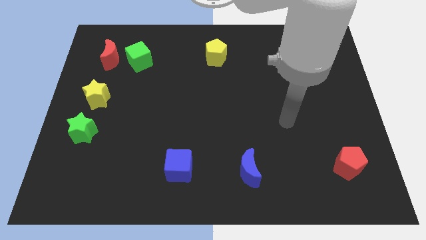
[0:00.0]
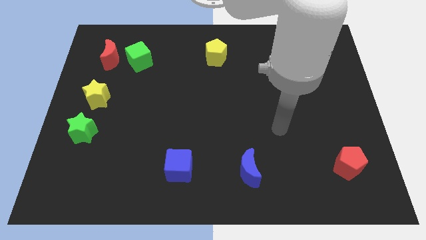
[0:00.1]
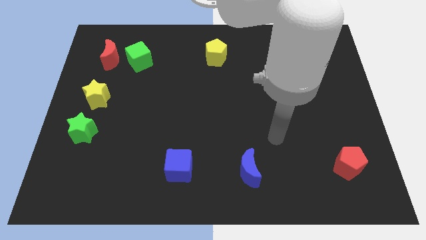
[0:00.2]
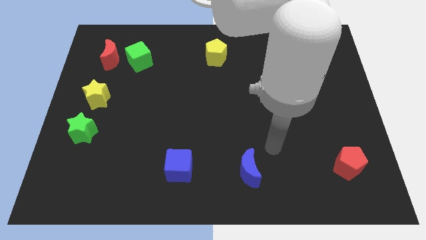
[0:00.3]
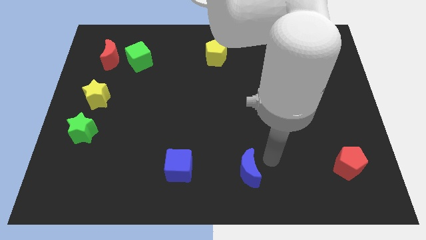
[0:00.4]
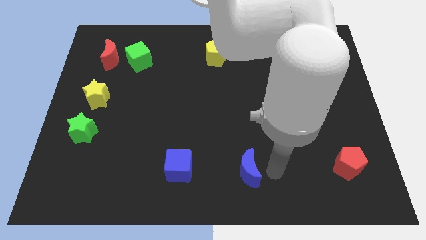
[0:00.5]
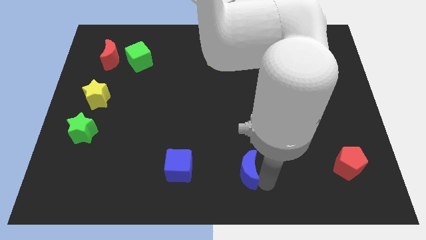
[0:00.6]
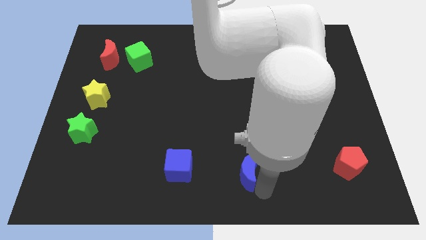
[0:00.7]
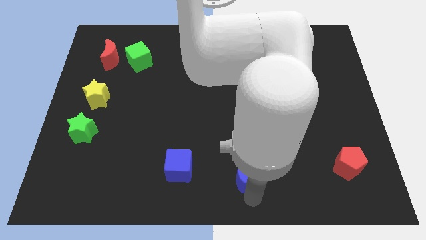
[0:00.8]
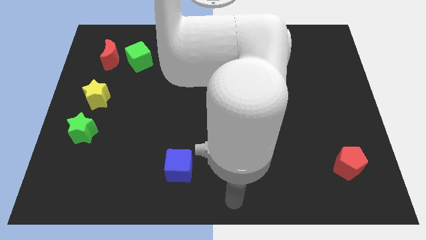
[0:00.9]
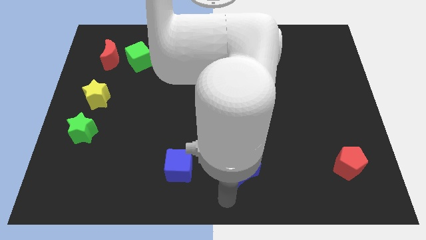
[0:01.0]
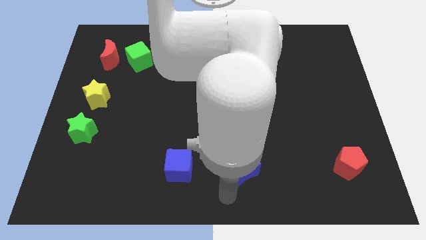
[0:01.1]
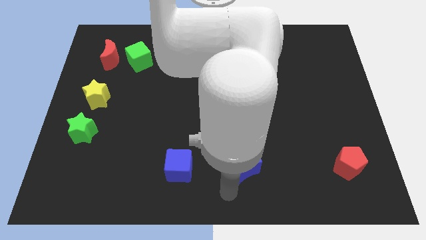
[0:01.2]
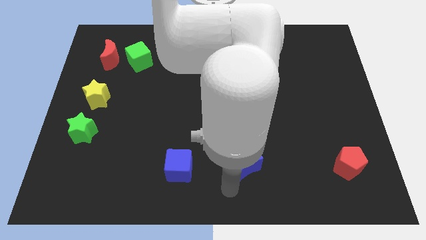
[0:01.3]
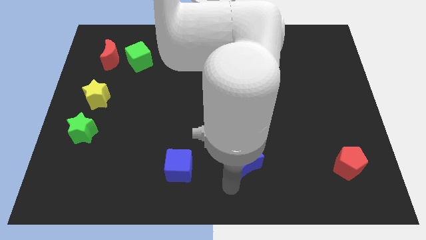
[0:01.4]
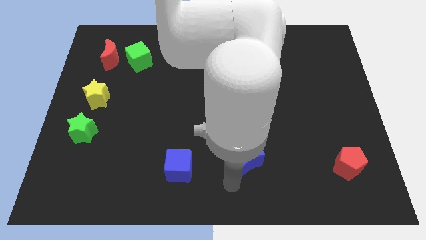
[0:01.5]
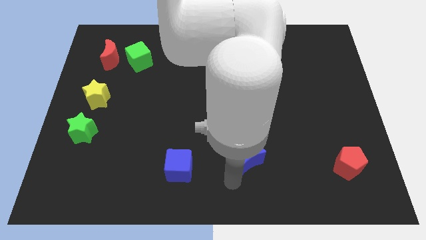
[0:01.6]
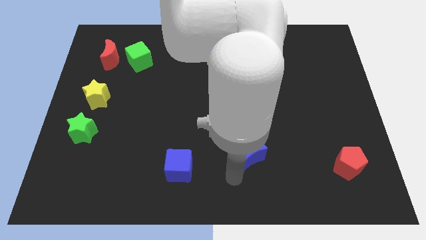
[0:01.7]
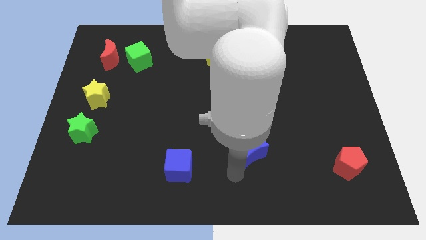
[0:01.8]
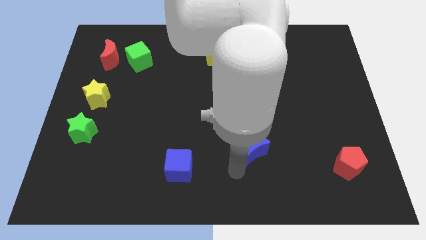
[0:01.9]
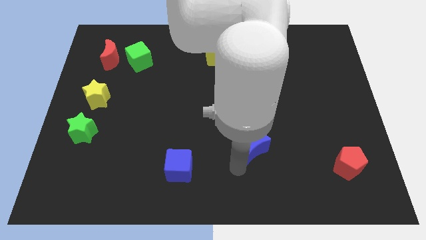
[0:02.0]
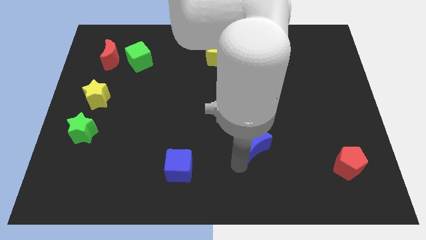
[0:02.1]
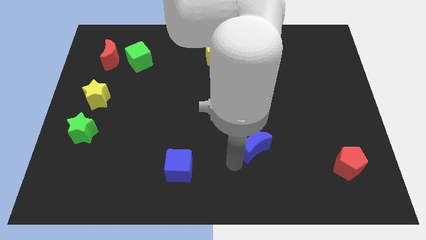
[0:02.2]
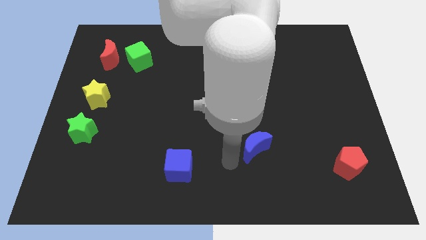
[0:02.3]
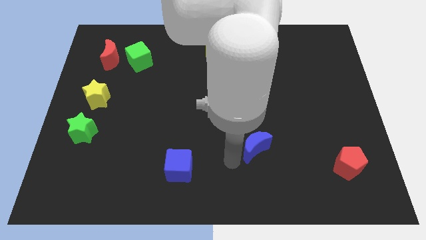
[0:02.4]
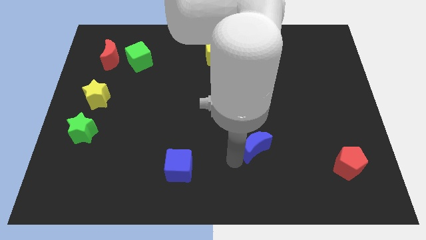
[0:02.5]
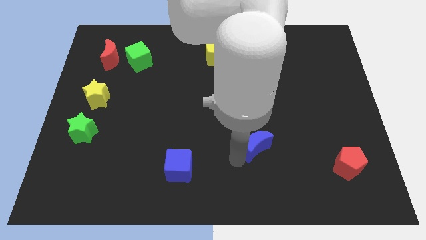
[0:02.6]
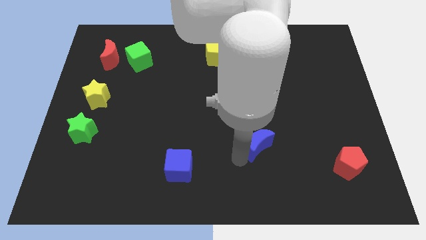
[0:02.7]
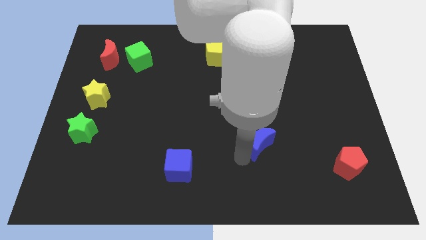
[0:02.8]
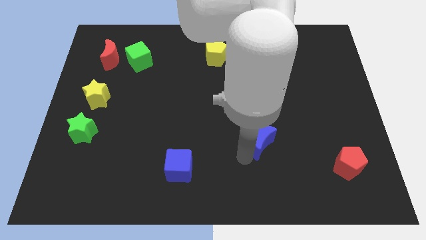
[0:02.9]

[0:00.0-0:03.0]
push the blue moon up and to the right somewhat

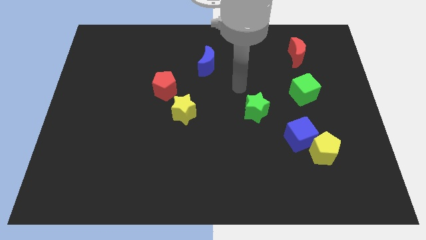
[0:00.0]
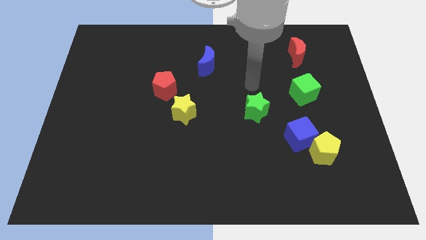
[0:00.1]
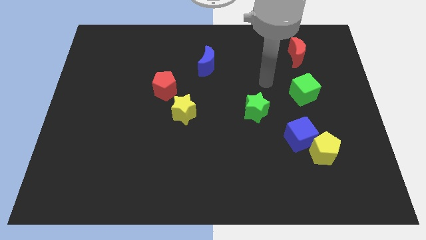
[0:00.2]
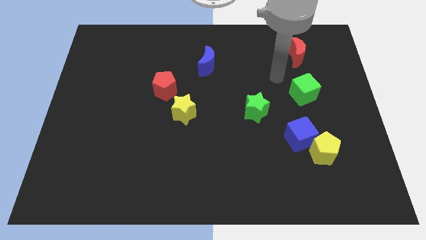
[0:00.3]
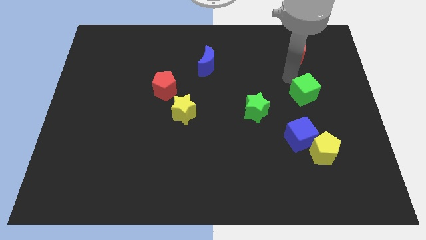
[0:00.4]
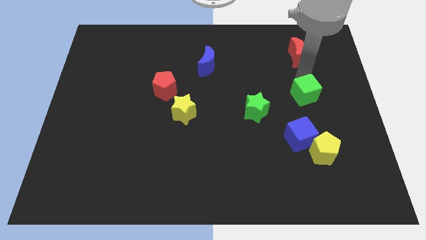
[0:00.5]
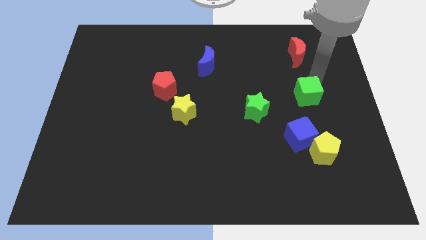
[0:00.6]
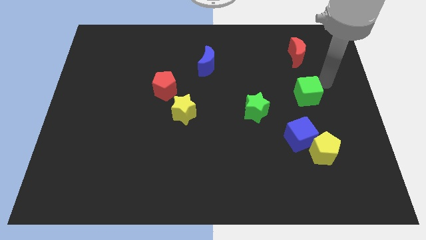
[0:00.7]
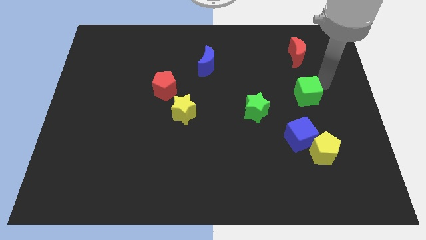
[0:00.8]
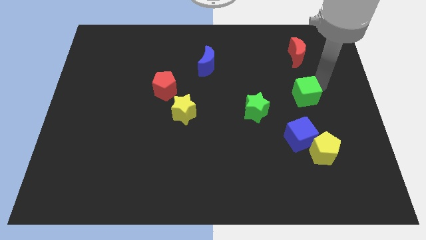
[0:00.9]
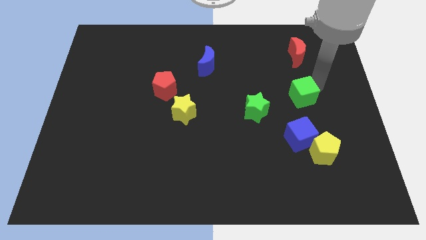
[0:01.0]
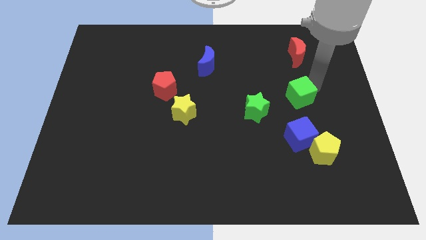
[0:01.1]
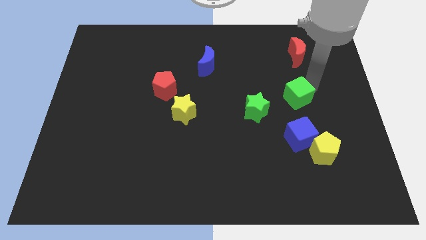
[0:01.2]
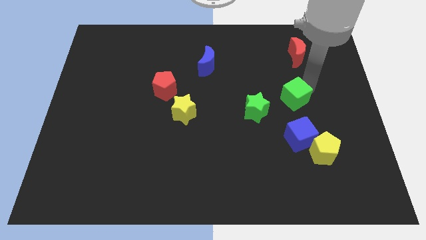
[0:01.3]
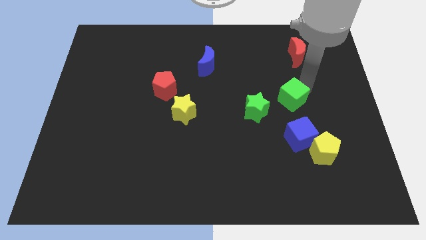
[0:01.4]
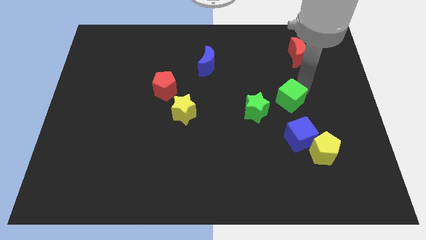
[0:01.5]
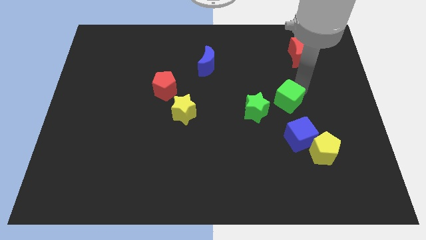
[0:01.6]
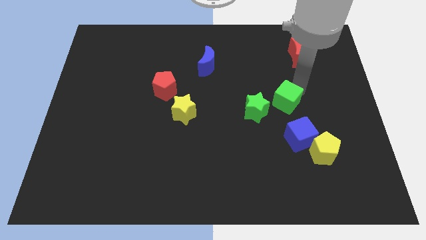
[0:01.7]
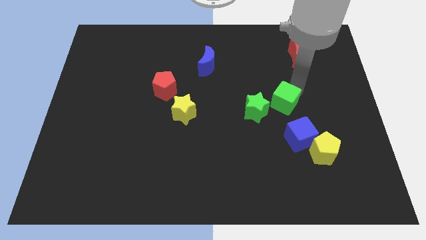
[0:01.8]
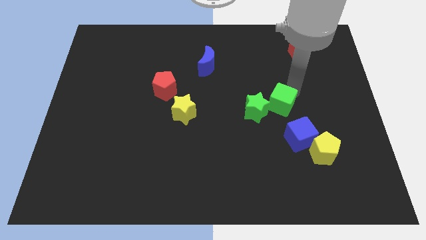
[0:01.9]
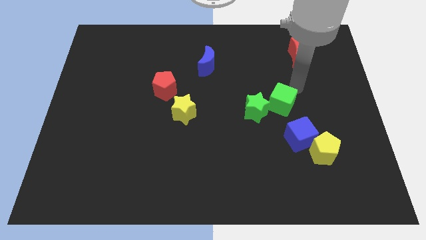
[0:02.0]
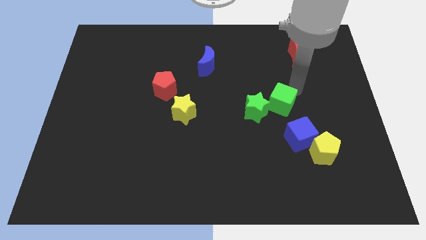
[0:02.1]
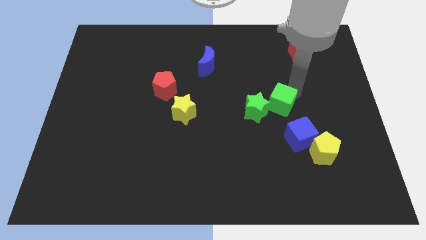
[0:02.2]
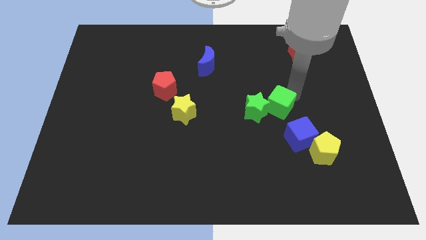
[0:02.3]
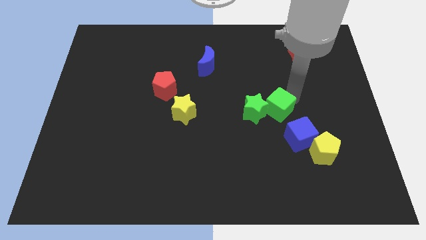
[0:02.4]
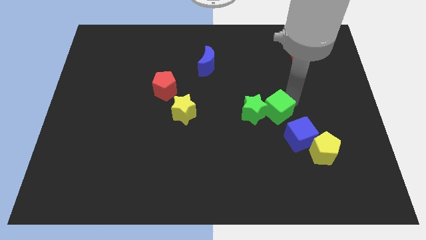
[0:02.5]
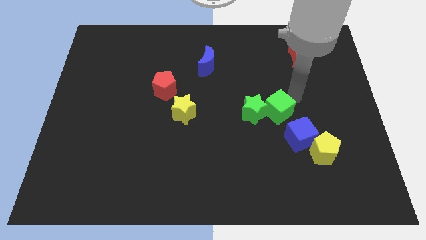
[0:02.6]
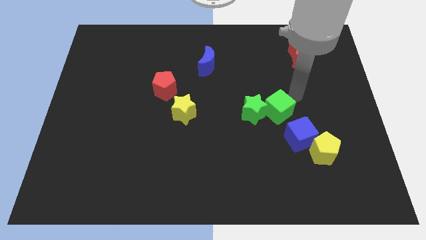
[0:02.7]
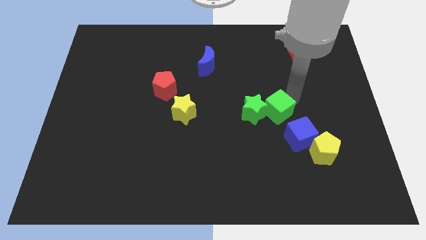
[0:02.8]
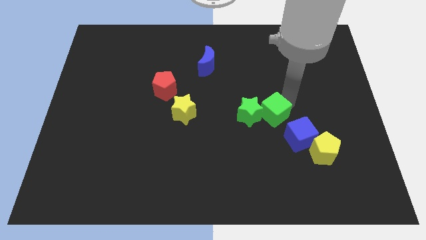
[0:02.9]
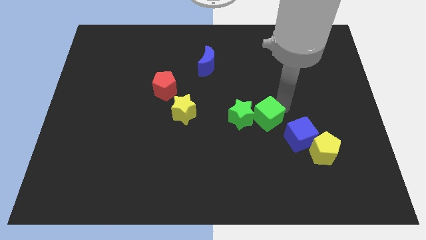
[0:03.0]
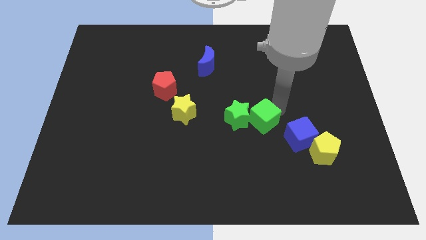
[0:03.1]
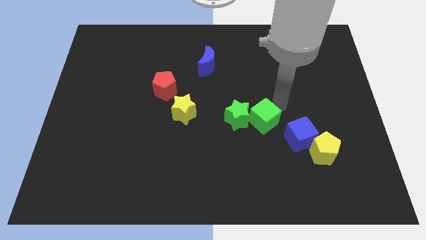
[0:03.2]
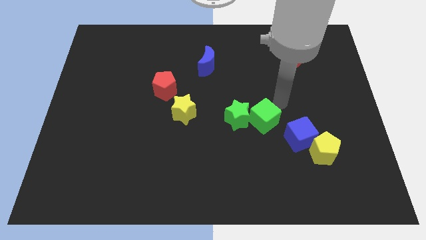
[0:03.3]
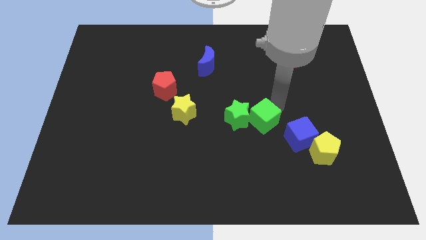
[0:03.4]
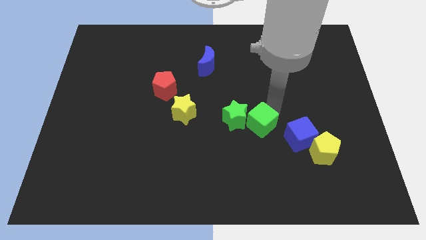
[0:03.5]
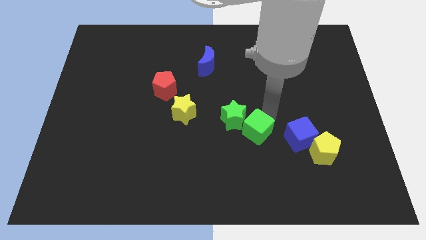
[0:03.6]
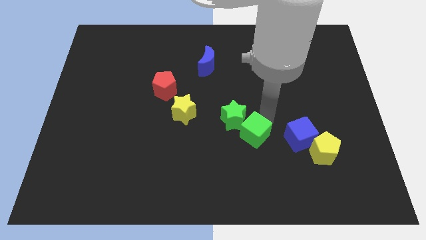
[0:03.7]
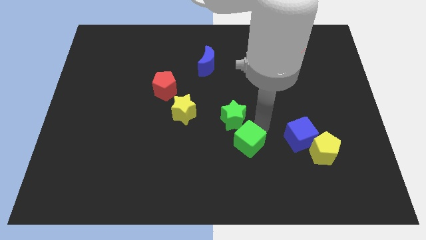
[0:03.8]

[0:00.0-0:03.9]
move the green cube down and left

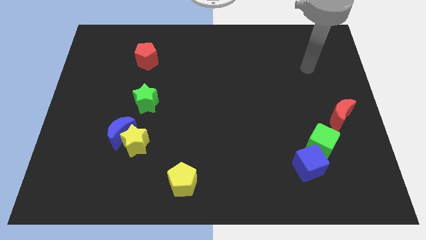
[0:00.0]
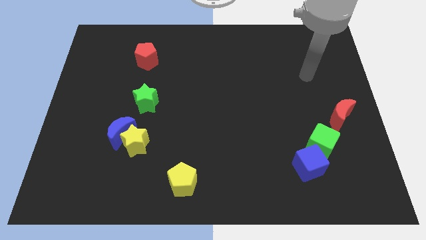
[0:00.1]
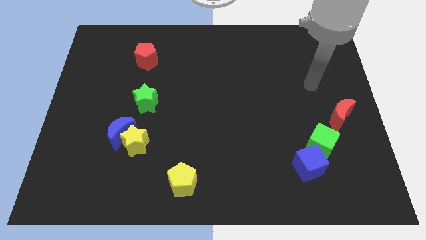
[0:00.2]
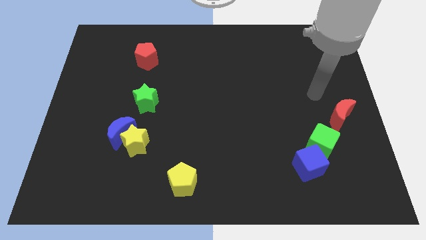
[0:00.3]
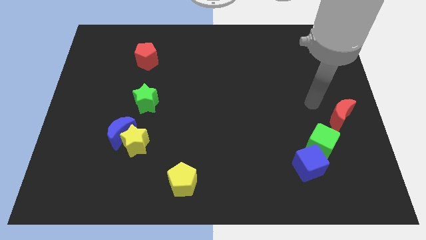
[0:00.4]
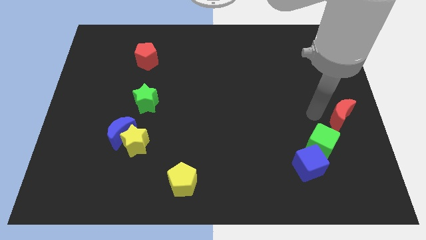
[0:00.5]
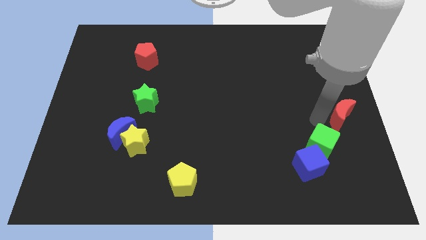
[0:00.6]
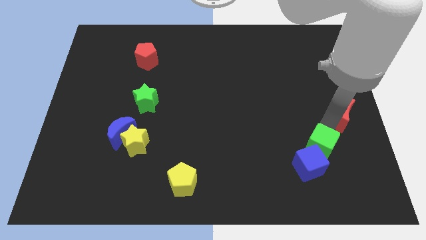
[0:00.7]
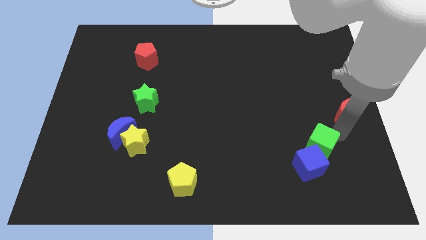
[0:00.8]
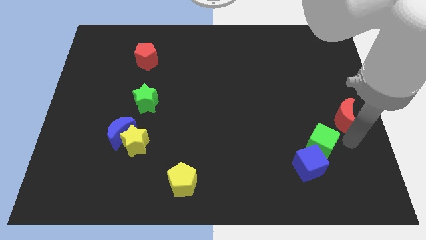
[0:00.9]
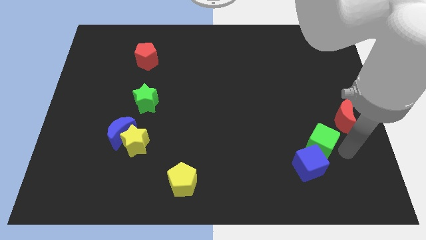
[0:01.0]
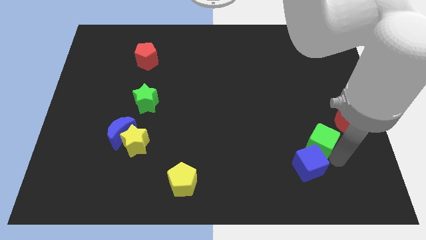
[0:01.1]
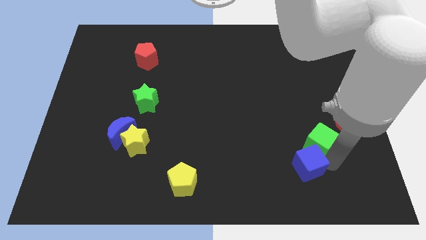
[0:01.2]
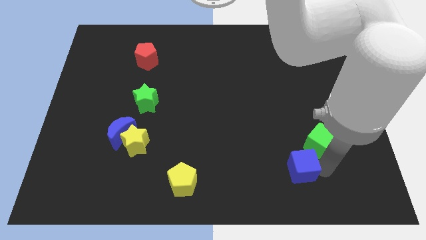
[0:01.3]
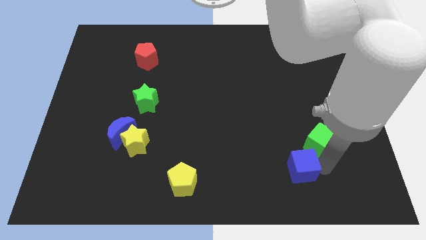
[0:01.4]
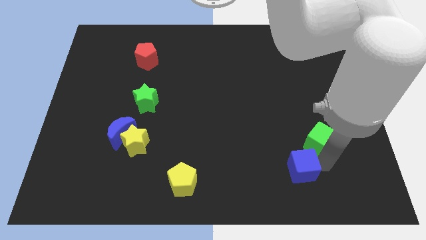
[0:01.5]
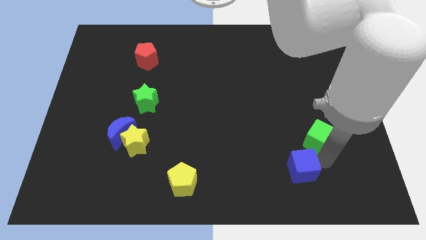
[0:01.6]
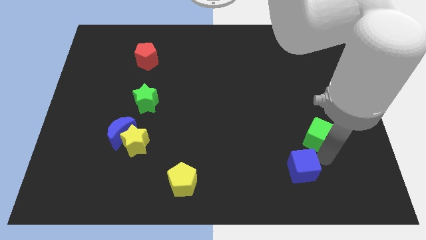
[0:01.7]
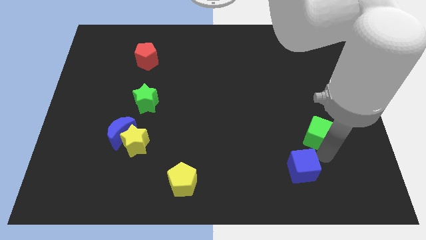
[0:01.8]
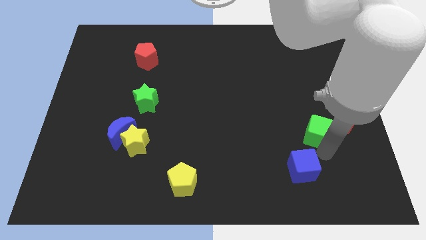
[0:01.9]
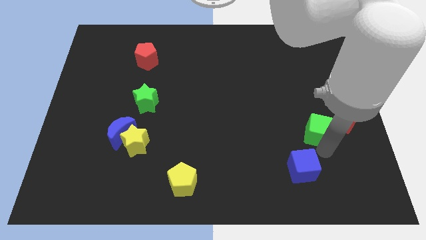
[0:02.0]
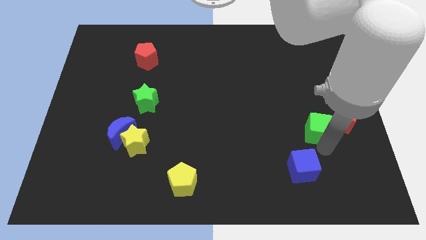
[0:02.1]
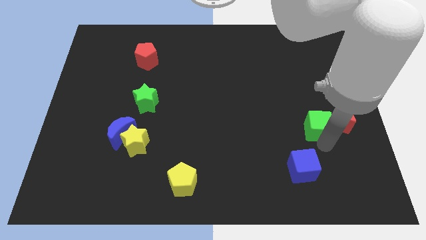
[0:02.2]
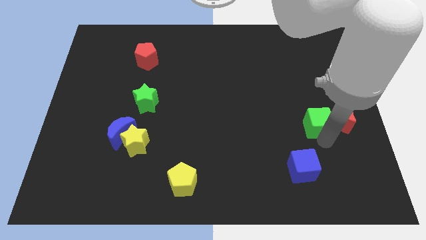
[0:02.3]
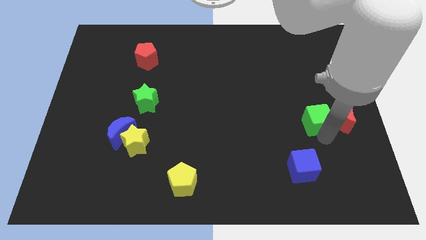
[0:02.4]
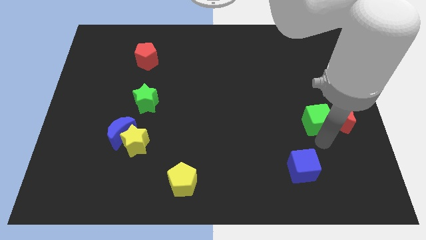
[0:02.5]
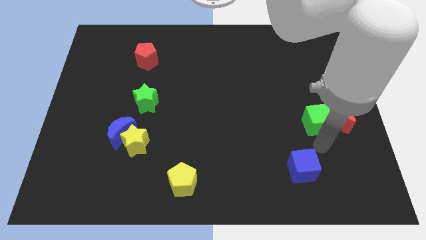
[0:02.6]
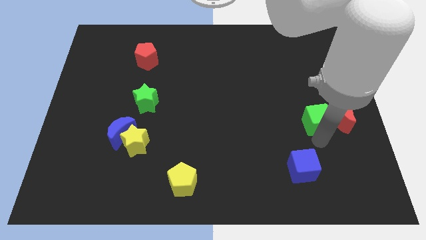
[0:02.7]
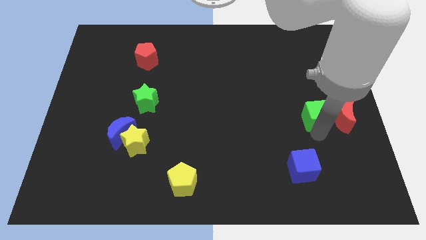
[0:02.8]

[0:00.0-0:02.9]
slightly move the green cube upwards
